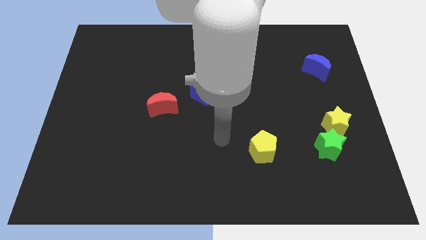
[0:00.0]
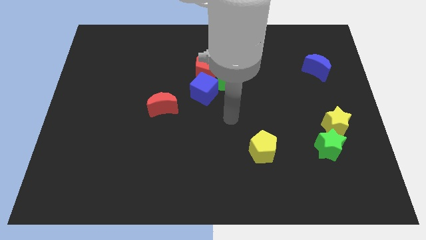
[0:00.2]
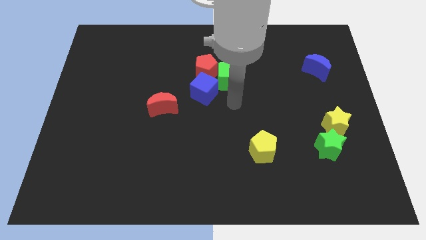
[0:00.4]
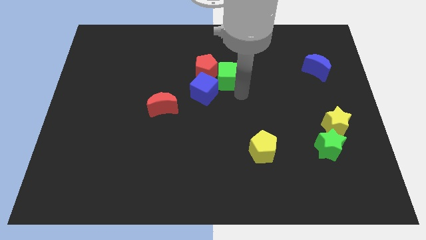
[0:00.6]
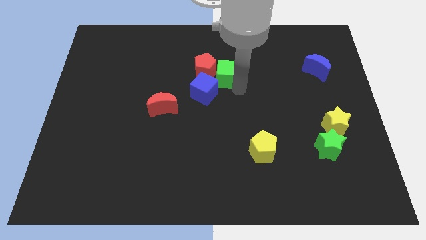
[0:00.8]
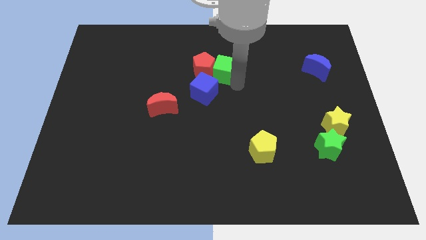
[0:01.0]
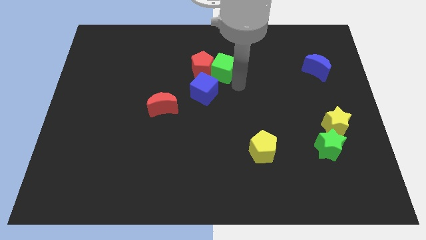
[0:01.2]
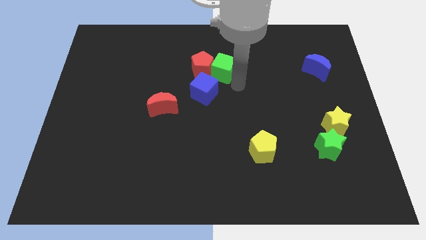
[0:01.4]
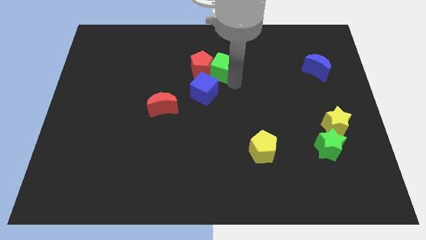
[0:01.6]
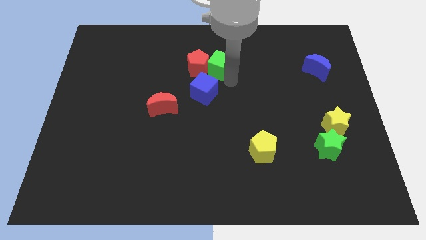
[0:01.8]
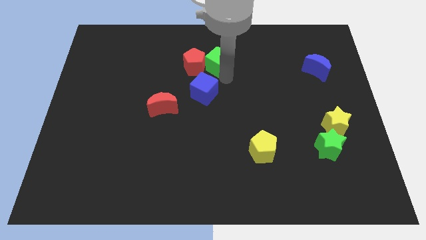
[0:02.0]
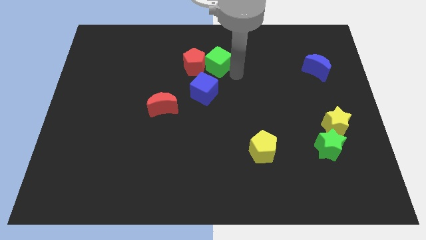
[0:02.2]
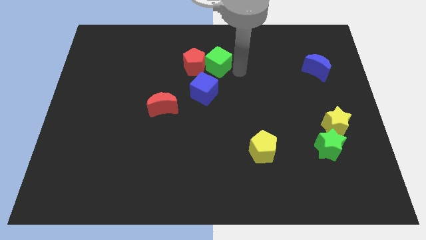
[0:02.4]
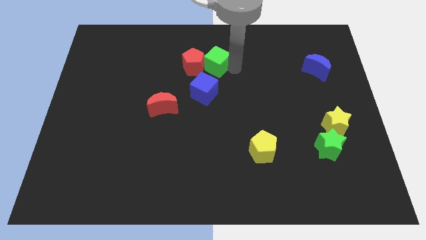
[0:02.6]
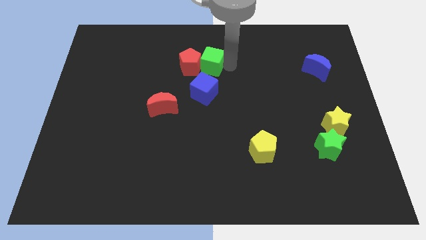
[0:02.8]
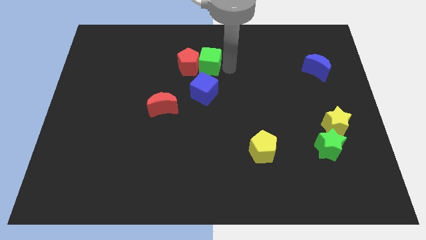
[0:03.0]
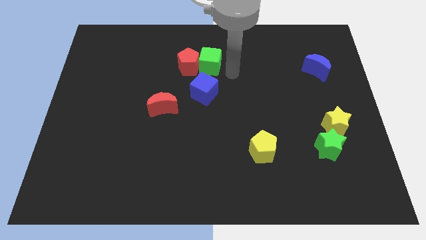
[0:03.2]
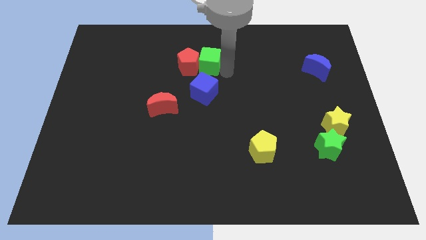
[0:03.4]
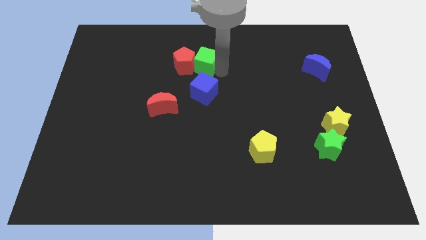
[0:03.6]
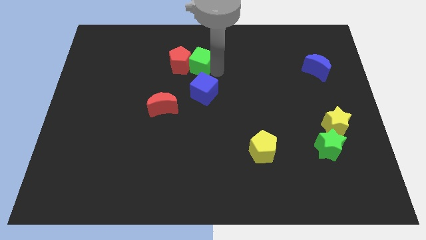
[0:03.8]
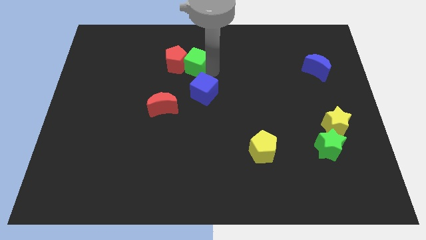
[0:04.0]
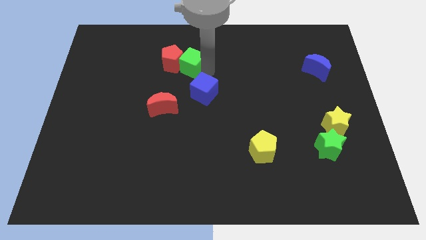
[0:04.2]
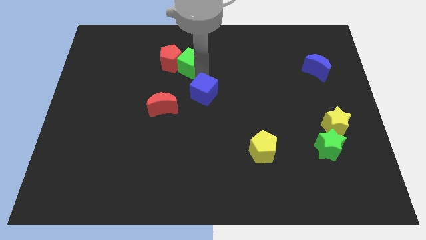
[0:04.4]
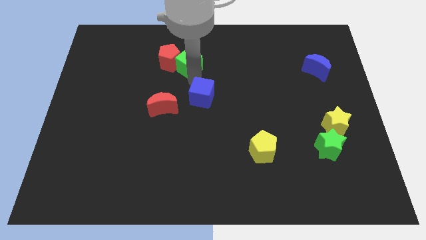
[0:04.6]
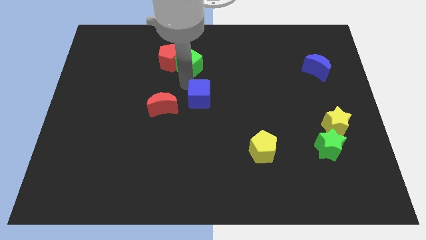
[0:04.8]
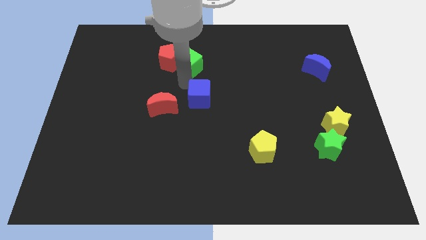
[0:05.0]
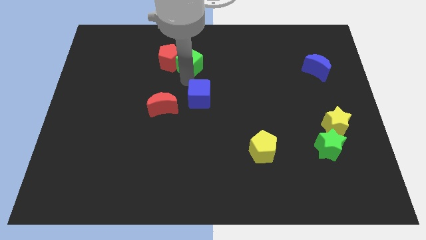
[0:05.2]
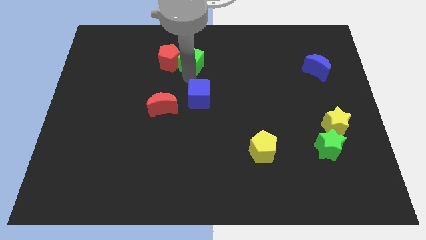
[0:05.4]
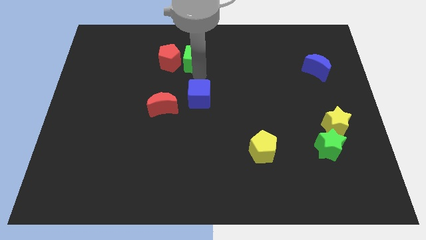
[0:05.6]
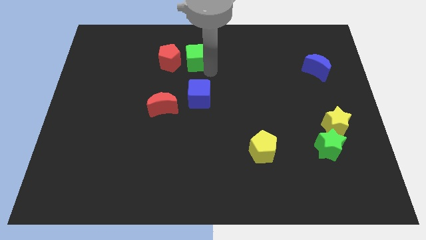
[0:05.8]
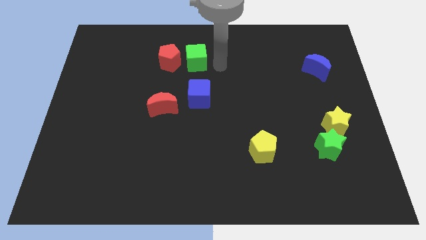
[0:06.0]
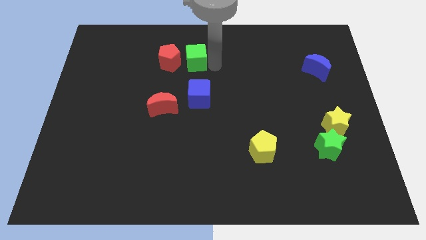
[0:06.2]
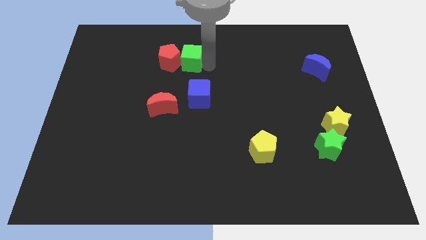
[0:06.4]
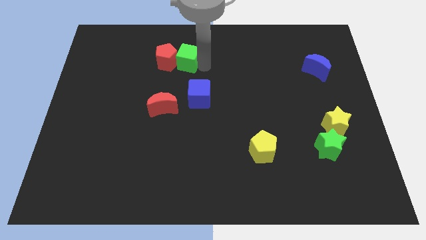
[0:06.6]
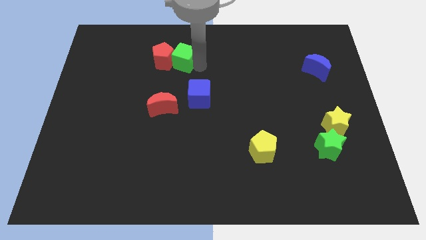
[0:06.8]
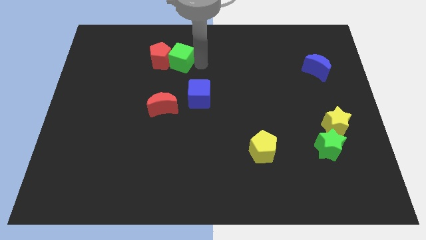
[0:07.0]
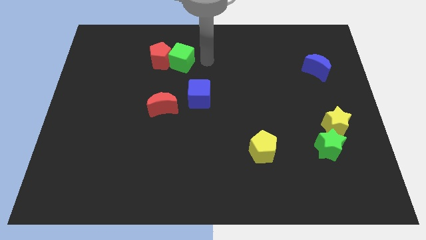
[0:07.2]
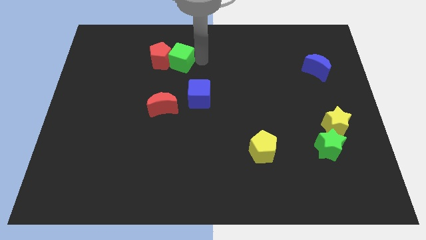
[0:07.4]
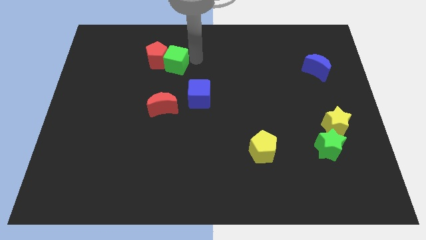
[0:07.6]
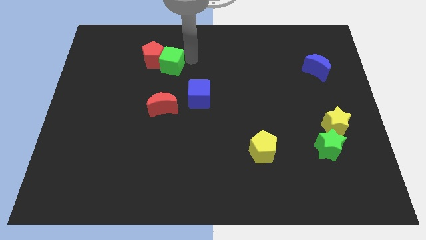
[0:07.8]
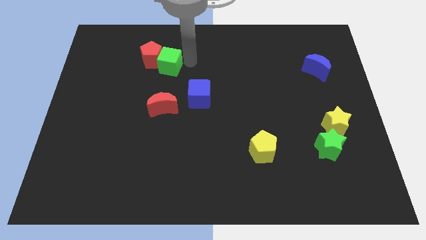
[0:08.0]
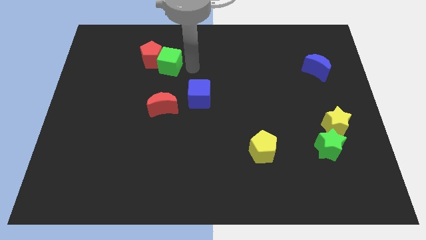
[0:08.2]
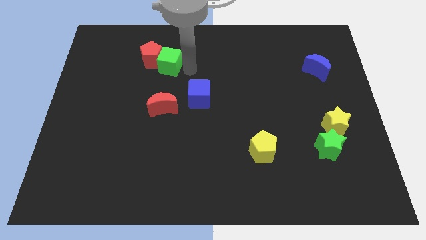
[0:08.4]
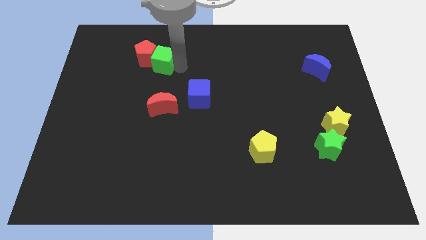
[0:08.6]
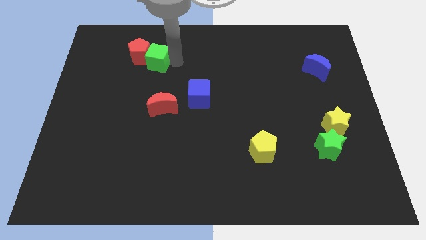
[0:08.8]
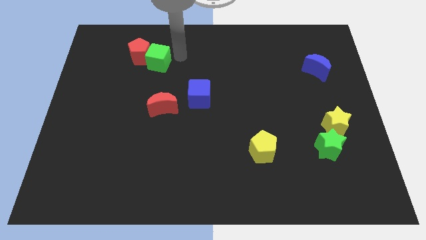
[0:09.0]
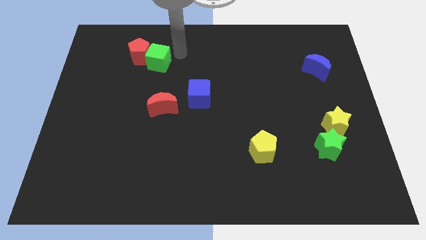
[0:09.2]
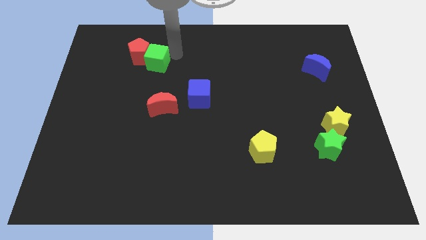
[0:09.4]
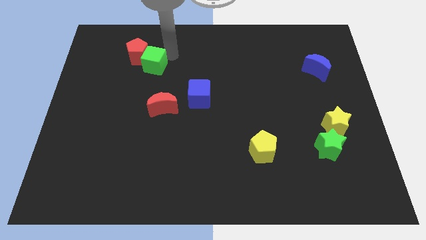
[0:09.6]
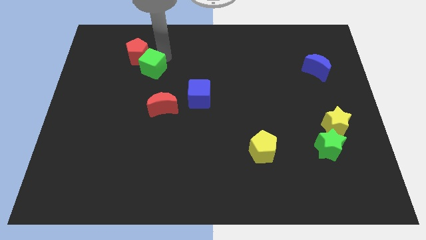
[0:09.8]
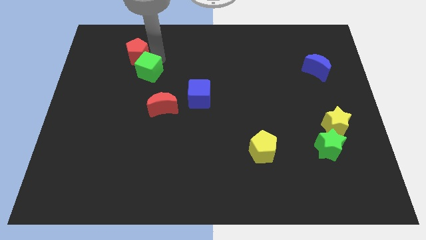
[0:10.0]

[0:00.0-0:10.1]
move the green cube to the left

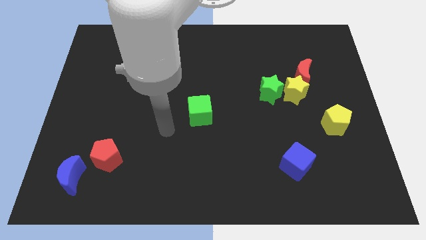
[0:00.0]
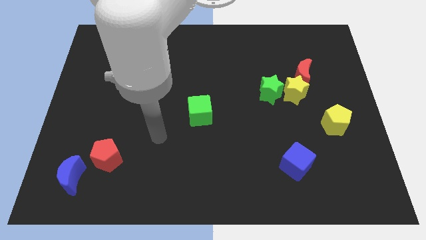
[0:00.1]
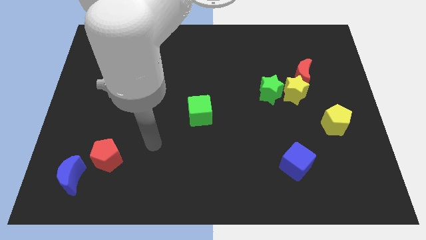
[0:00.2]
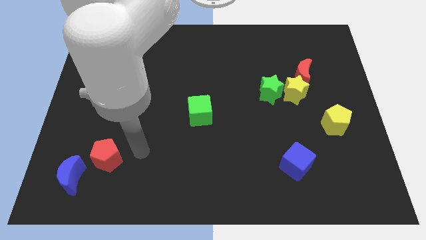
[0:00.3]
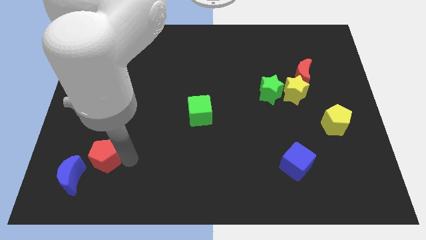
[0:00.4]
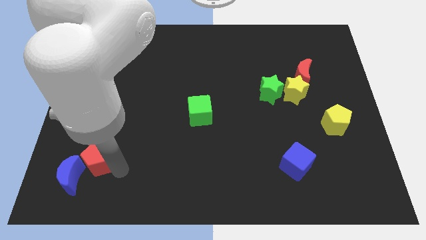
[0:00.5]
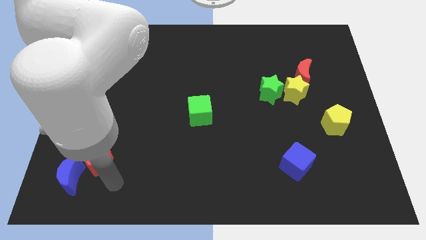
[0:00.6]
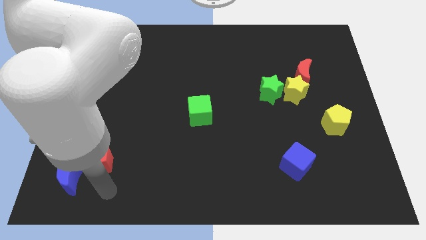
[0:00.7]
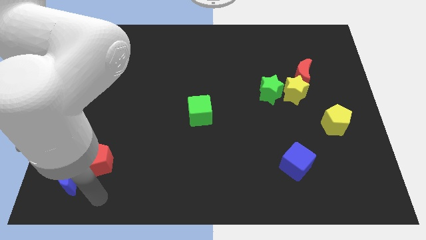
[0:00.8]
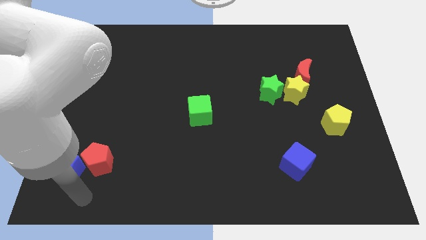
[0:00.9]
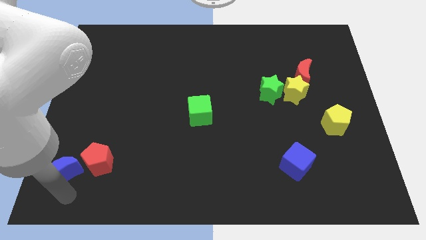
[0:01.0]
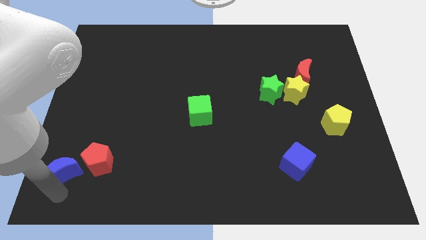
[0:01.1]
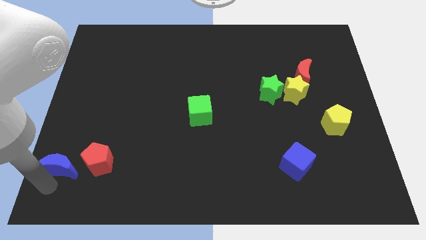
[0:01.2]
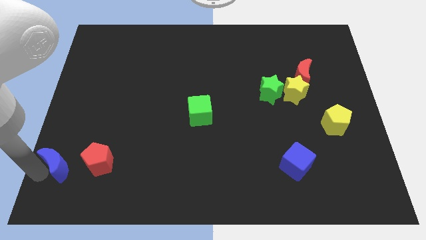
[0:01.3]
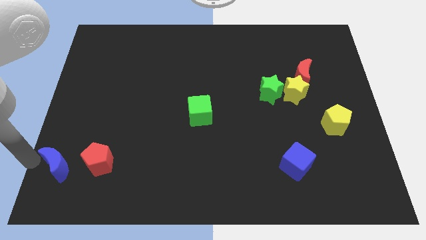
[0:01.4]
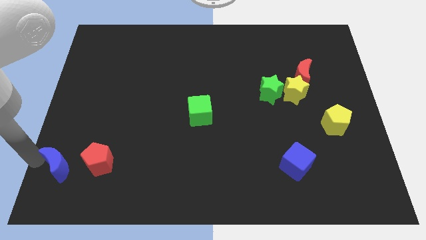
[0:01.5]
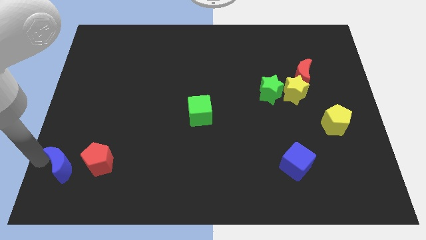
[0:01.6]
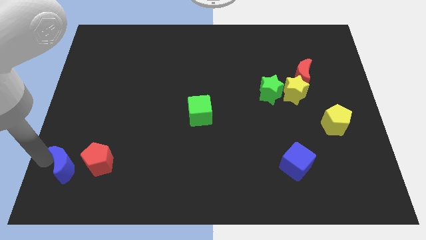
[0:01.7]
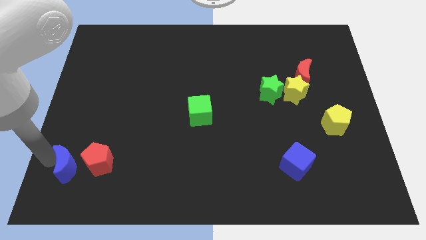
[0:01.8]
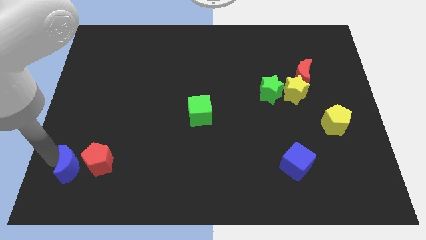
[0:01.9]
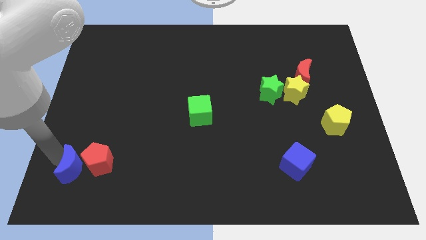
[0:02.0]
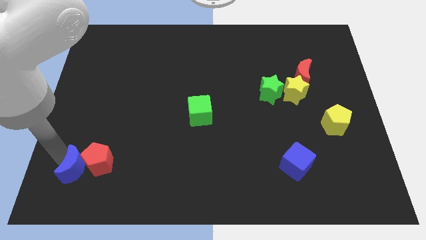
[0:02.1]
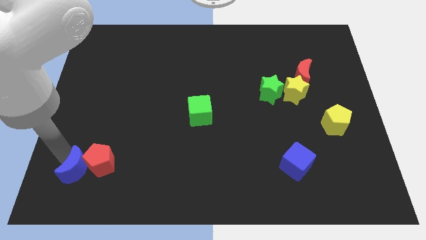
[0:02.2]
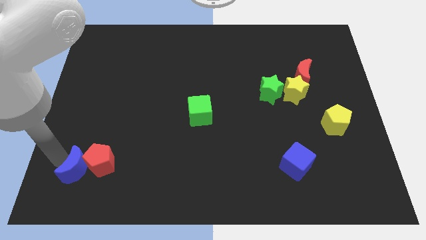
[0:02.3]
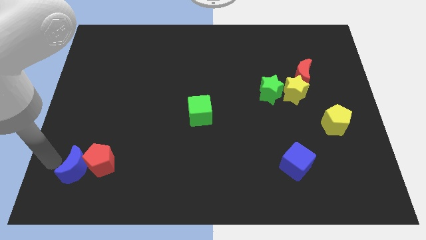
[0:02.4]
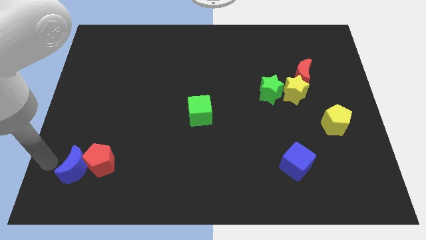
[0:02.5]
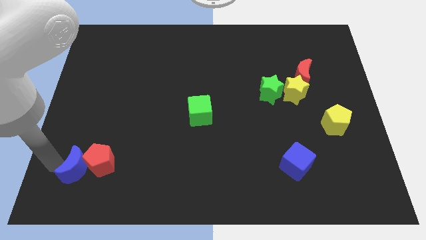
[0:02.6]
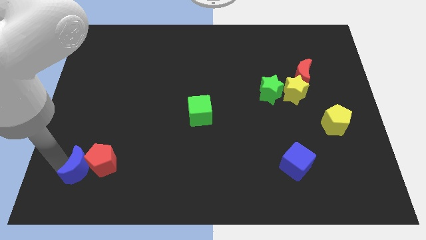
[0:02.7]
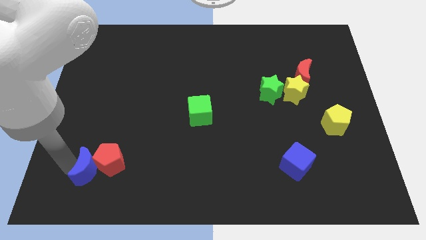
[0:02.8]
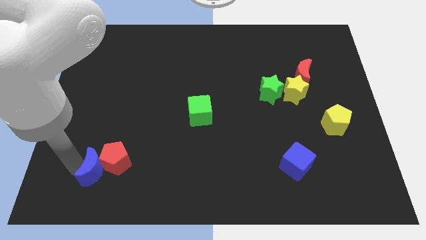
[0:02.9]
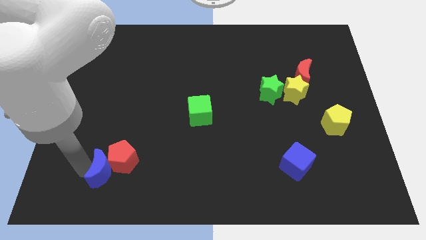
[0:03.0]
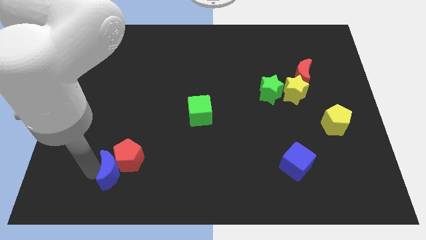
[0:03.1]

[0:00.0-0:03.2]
slightly slide the blue moon right
